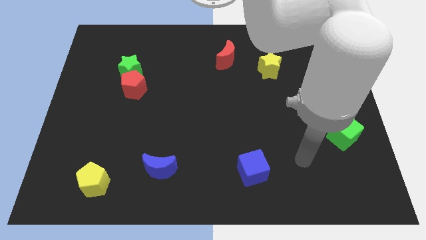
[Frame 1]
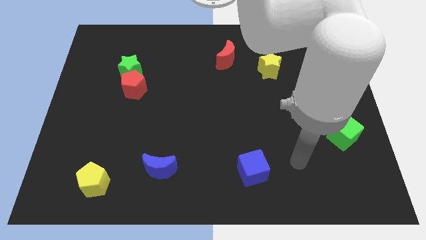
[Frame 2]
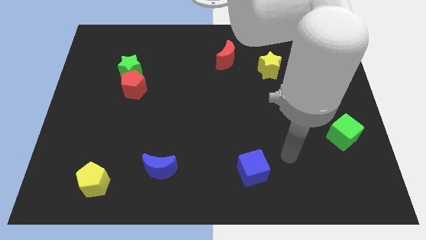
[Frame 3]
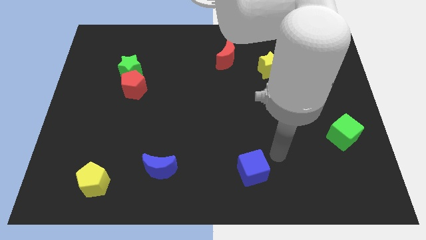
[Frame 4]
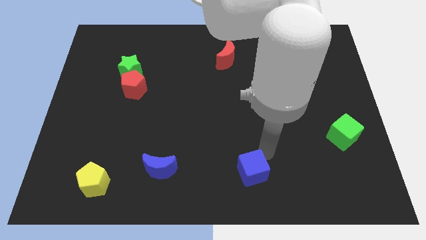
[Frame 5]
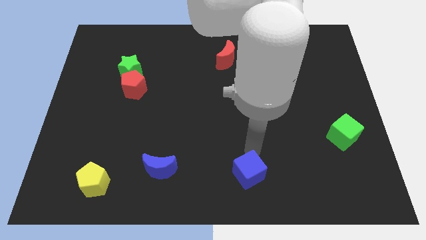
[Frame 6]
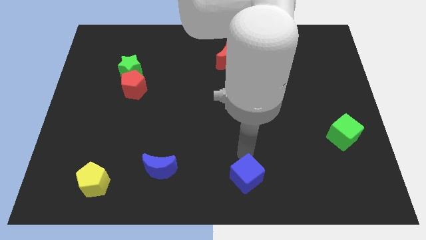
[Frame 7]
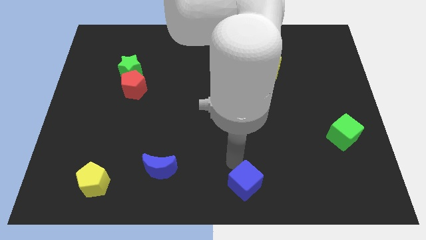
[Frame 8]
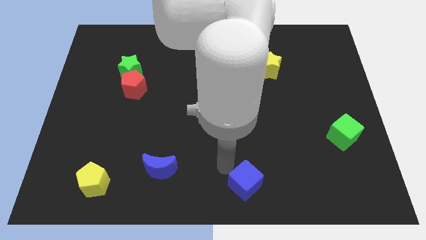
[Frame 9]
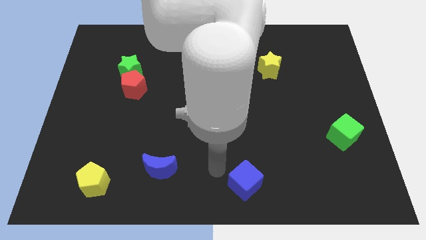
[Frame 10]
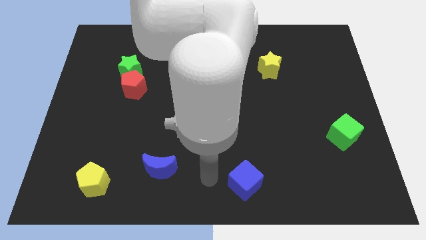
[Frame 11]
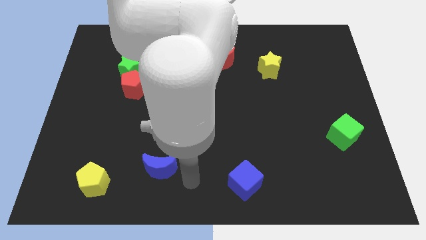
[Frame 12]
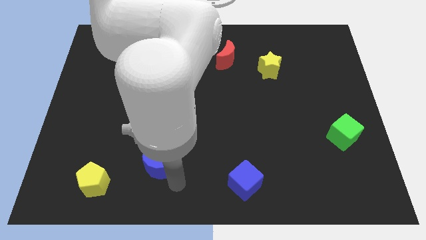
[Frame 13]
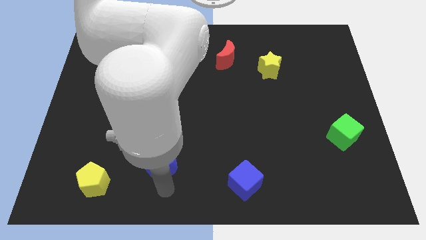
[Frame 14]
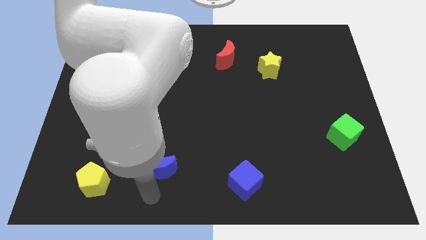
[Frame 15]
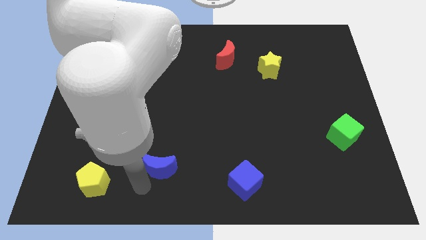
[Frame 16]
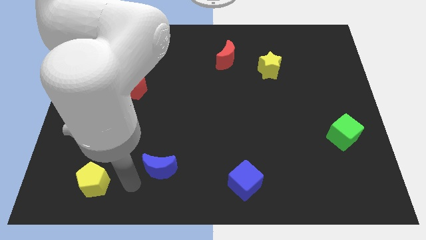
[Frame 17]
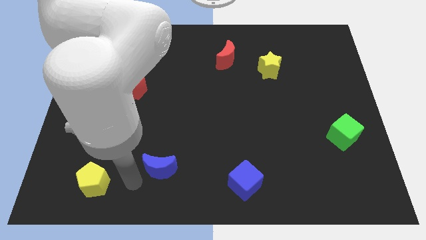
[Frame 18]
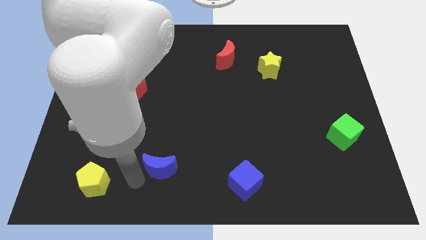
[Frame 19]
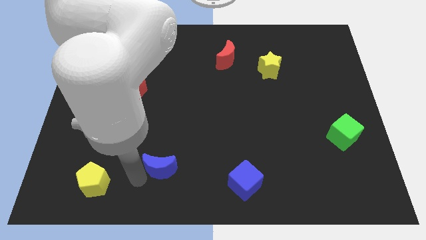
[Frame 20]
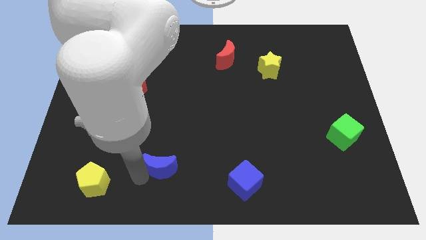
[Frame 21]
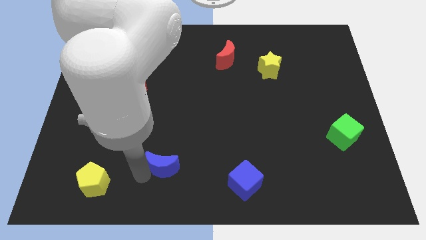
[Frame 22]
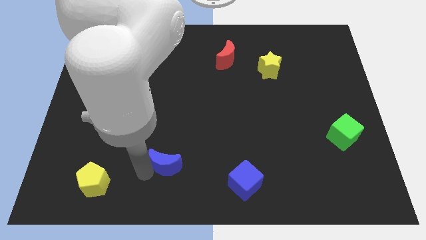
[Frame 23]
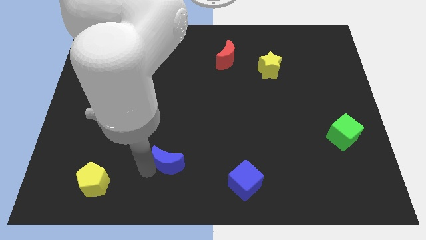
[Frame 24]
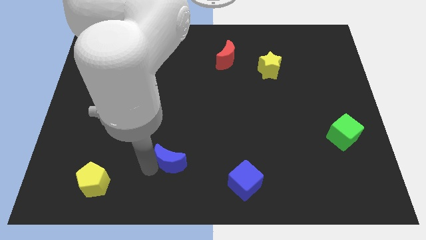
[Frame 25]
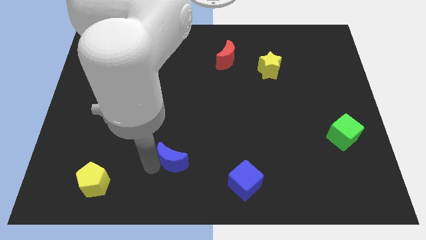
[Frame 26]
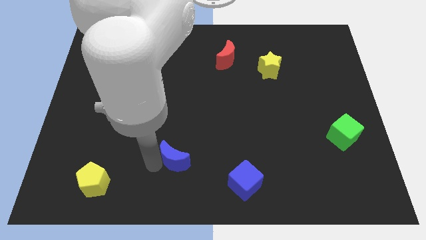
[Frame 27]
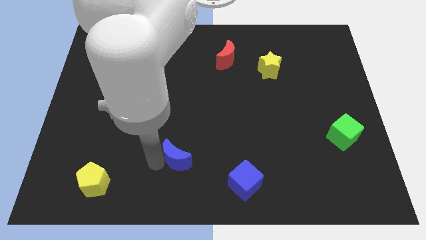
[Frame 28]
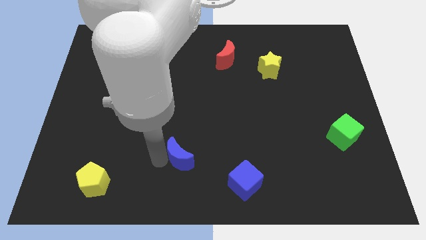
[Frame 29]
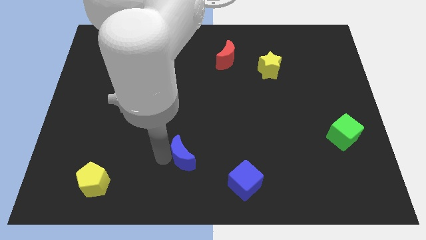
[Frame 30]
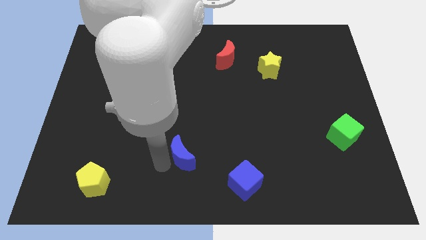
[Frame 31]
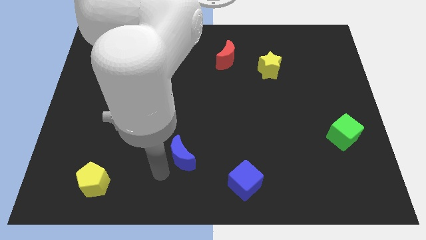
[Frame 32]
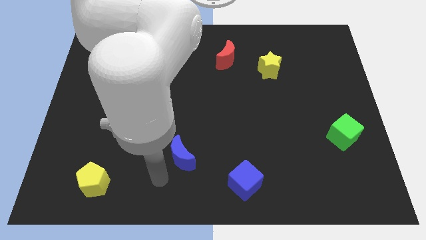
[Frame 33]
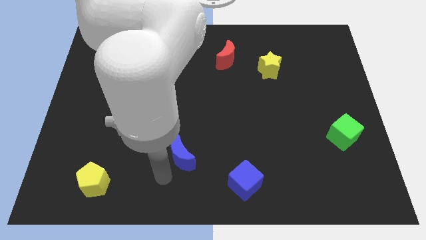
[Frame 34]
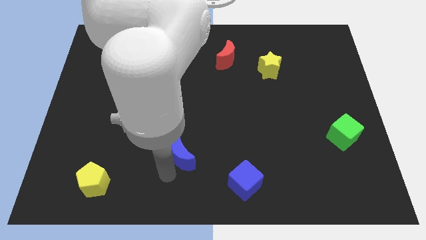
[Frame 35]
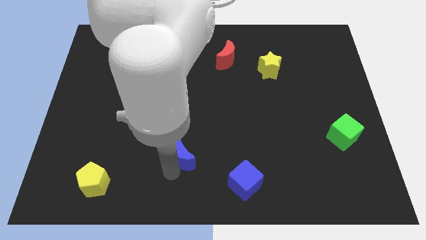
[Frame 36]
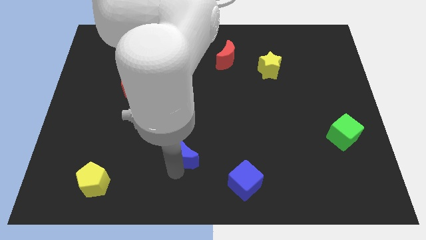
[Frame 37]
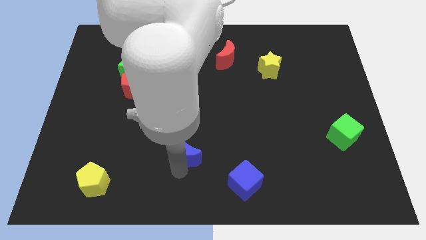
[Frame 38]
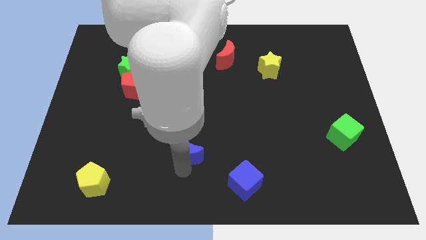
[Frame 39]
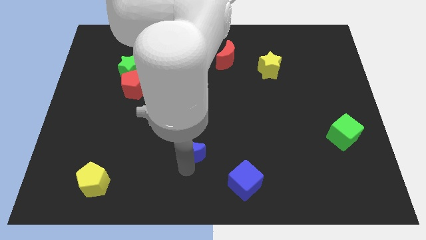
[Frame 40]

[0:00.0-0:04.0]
push the blue moon diagonally upwards and right a little bit

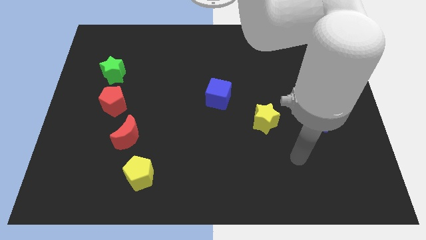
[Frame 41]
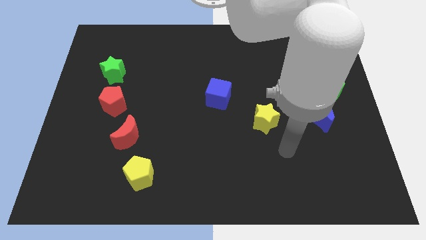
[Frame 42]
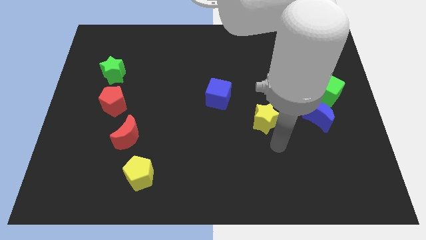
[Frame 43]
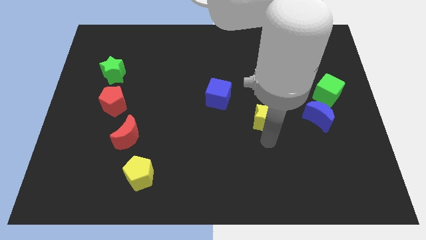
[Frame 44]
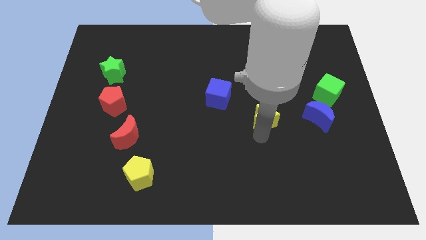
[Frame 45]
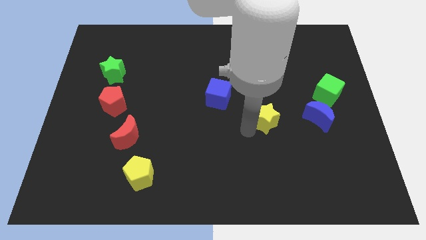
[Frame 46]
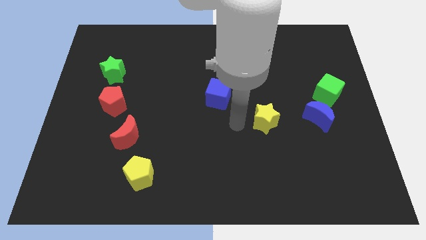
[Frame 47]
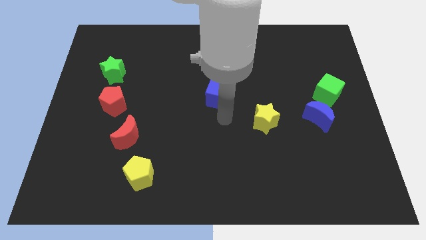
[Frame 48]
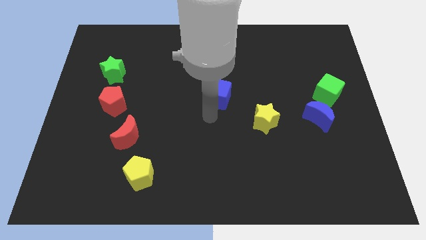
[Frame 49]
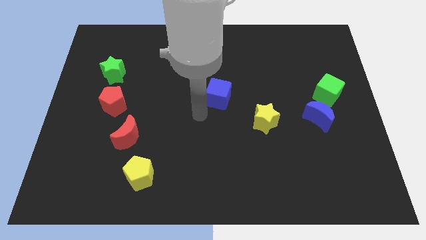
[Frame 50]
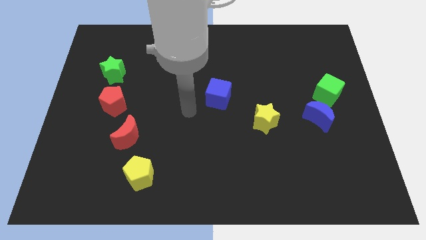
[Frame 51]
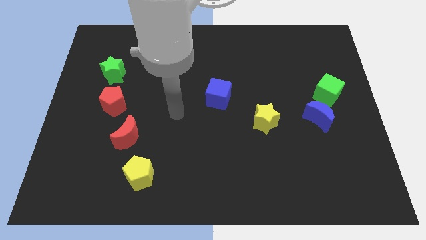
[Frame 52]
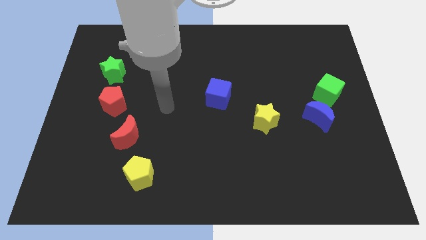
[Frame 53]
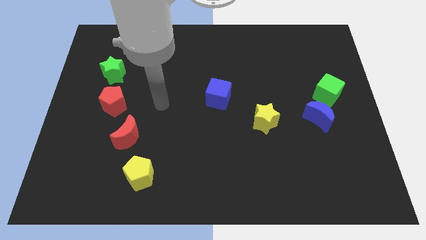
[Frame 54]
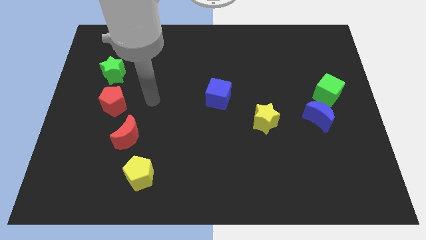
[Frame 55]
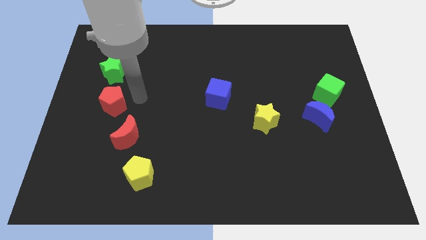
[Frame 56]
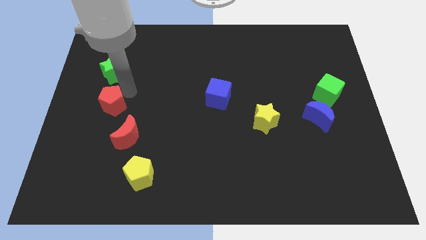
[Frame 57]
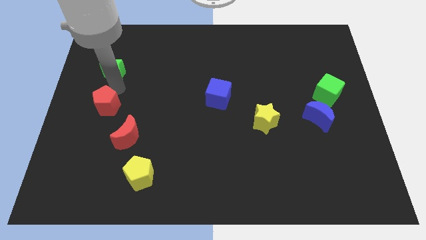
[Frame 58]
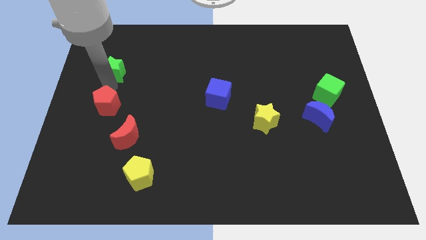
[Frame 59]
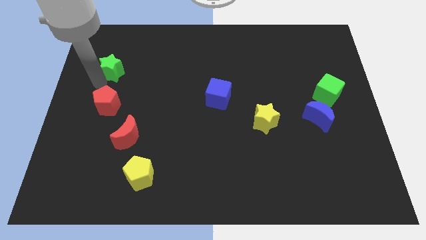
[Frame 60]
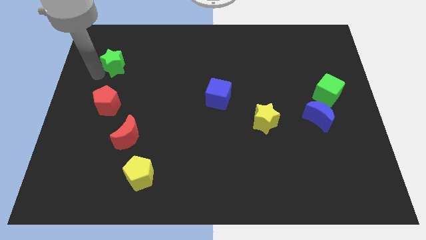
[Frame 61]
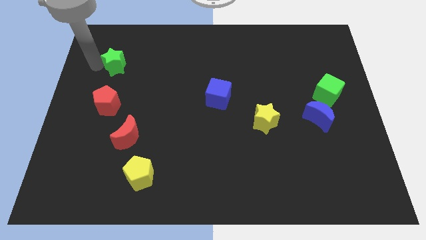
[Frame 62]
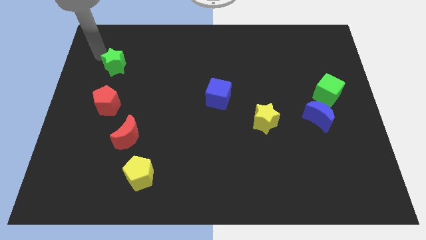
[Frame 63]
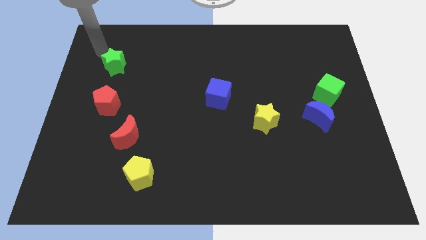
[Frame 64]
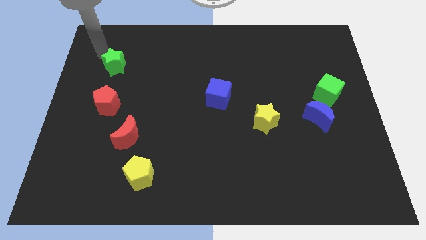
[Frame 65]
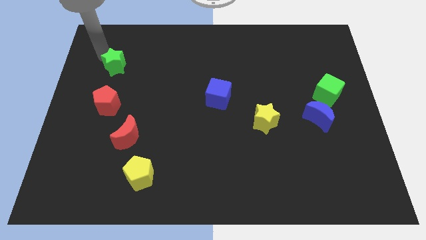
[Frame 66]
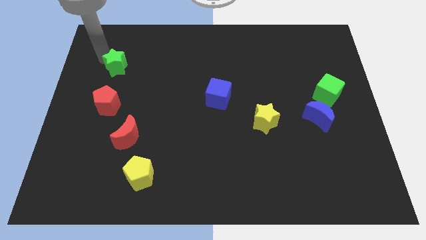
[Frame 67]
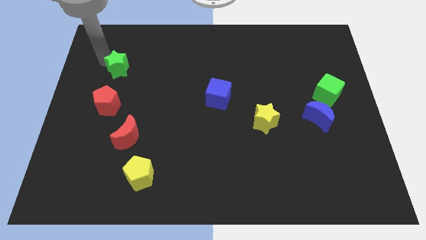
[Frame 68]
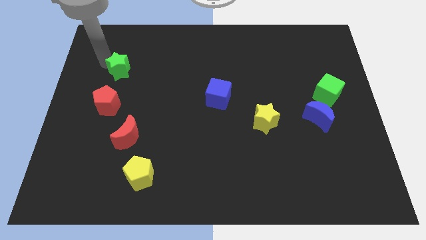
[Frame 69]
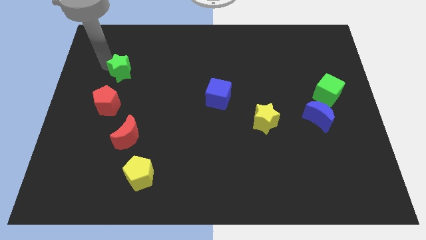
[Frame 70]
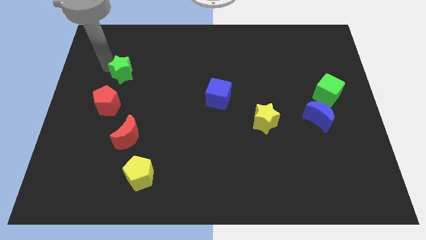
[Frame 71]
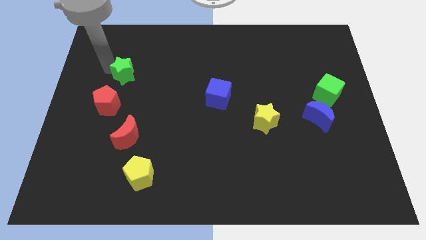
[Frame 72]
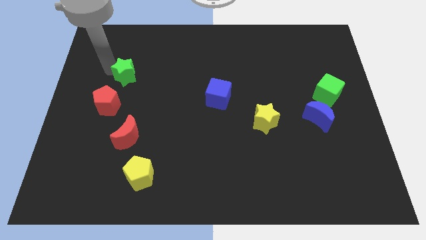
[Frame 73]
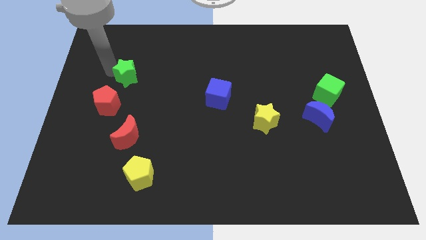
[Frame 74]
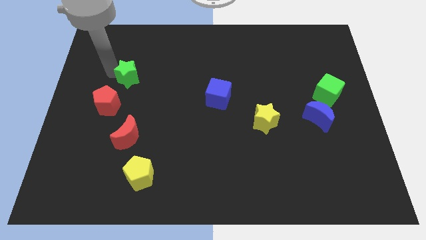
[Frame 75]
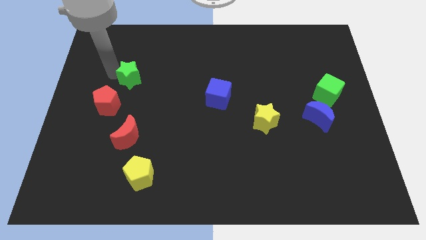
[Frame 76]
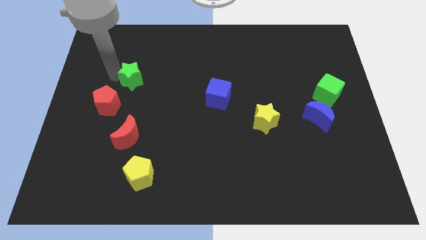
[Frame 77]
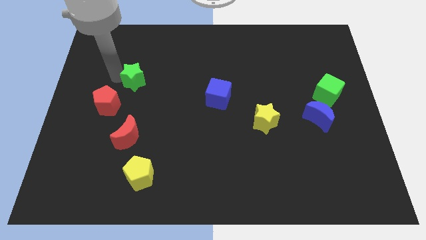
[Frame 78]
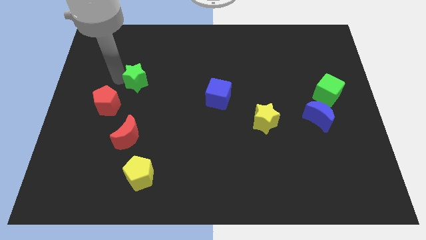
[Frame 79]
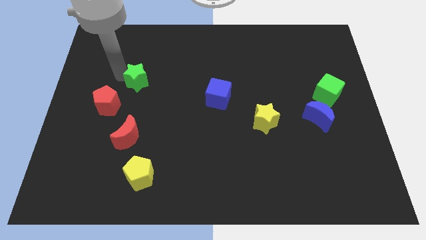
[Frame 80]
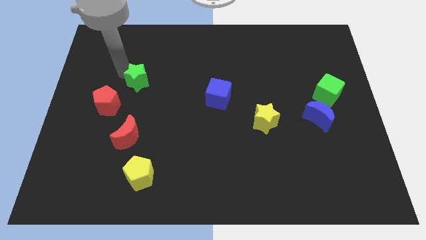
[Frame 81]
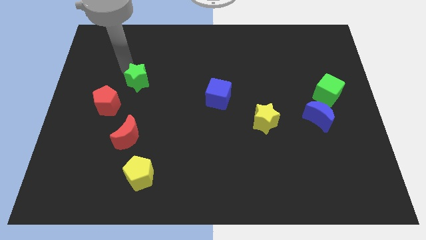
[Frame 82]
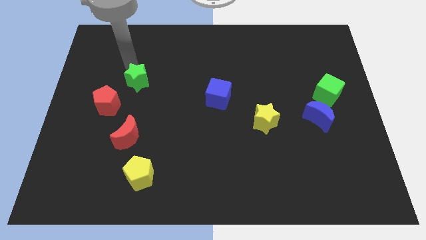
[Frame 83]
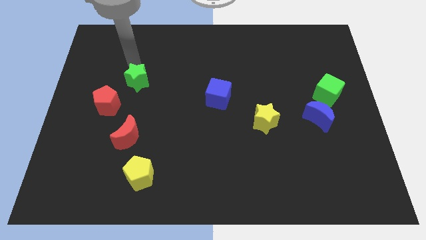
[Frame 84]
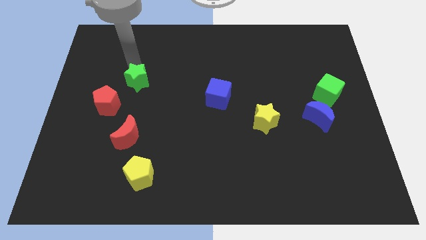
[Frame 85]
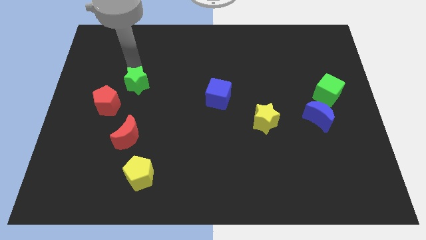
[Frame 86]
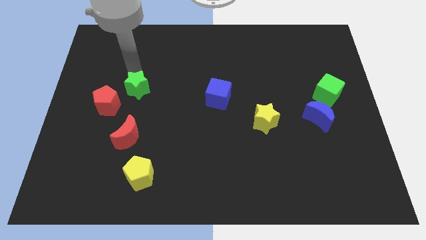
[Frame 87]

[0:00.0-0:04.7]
move the green star slightly down and right
